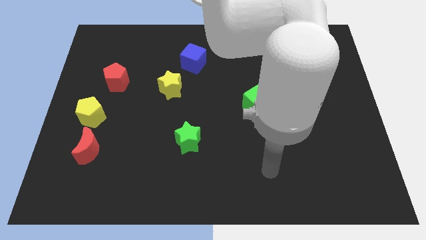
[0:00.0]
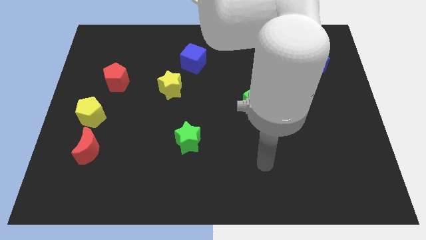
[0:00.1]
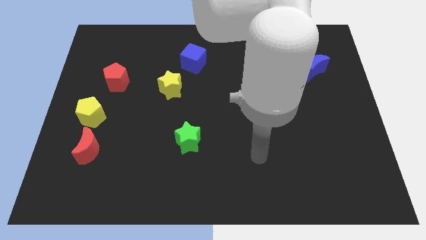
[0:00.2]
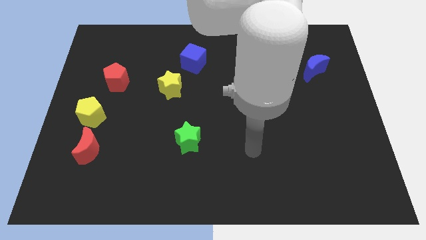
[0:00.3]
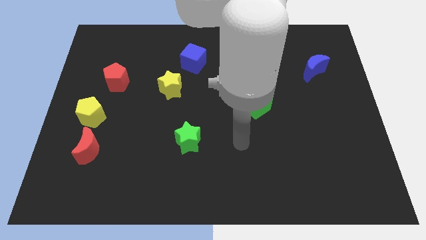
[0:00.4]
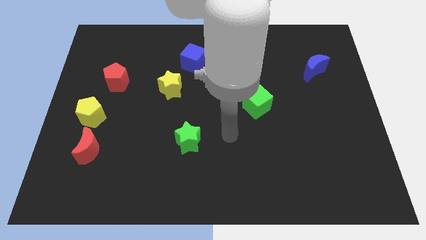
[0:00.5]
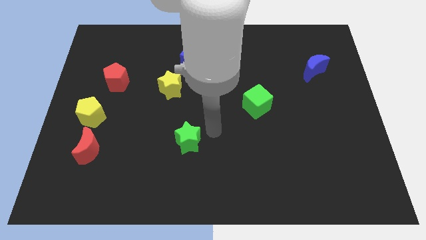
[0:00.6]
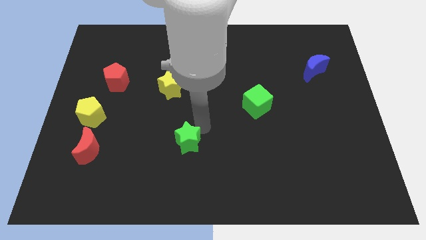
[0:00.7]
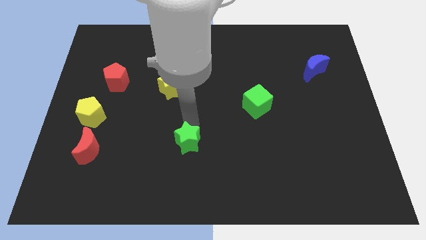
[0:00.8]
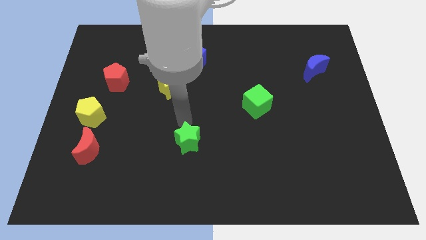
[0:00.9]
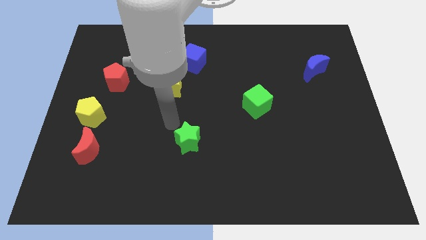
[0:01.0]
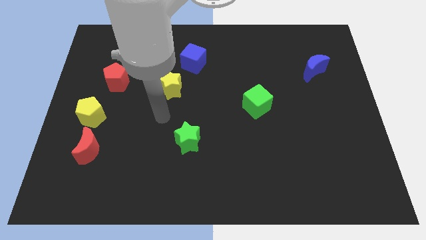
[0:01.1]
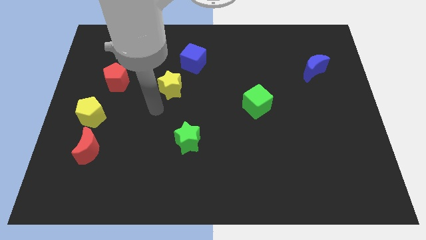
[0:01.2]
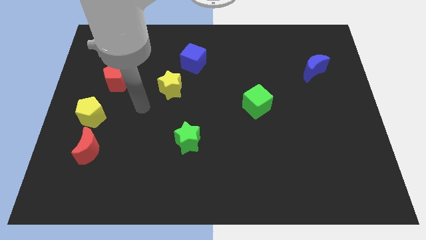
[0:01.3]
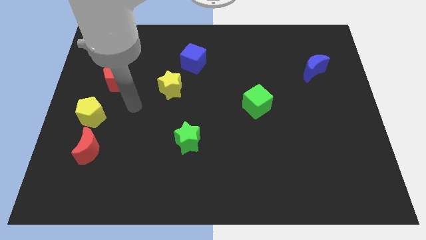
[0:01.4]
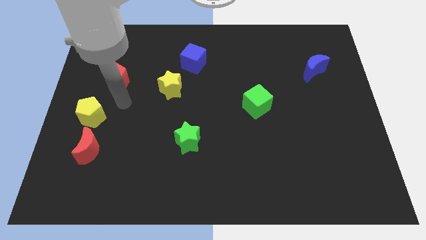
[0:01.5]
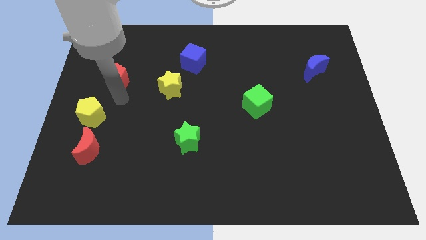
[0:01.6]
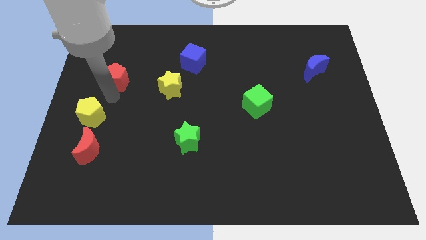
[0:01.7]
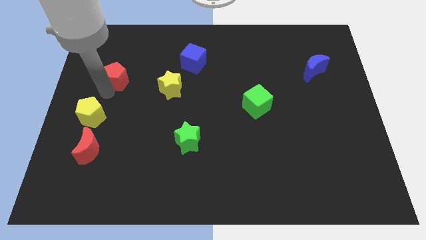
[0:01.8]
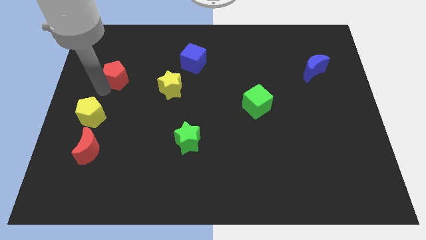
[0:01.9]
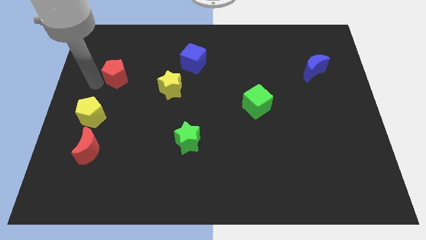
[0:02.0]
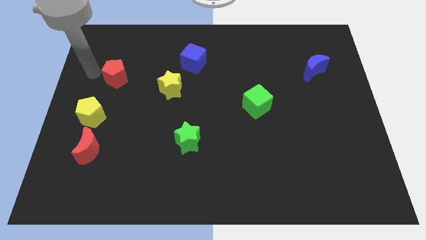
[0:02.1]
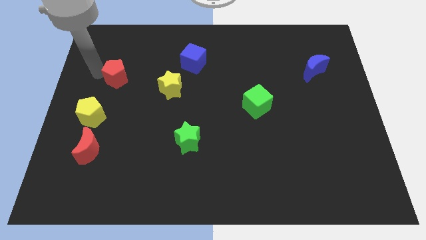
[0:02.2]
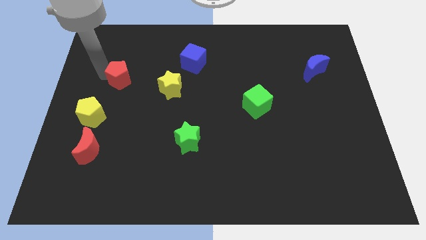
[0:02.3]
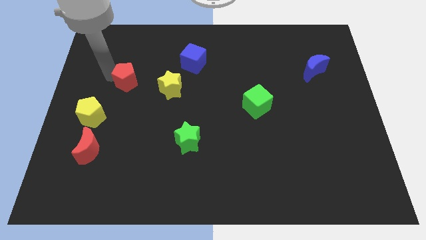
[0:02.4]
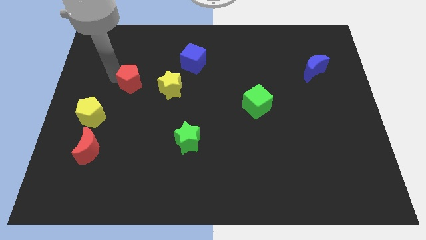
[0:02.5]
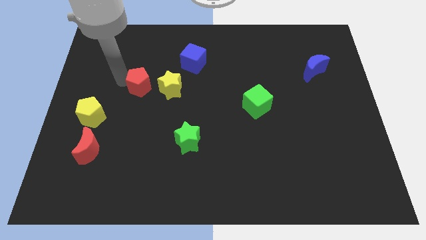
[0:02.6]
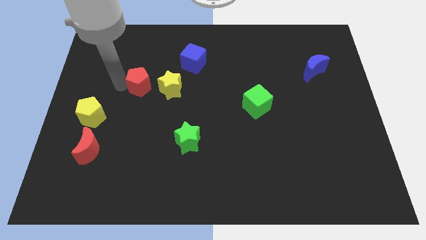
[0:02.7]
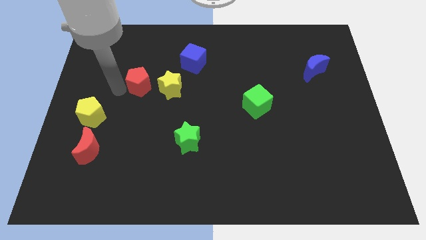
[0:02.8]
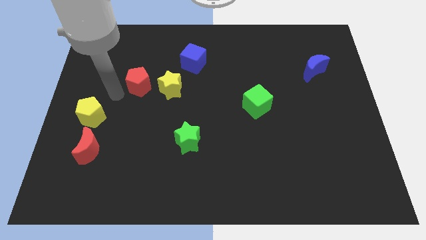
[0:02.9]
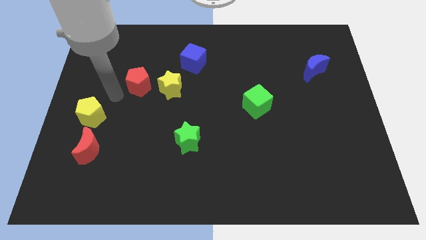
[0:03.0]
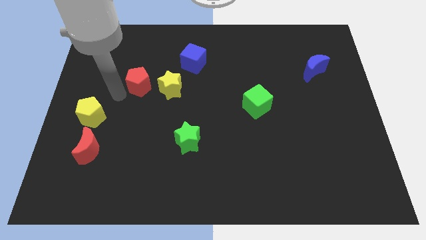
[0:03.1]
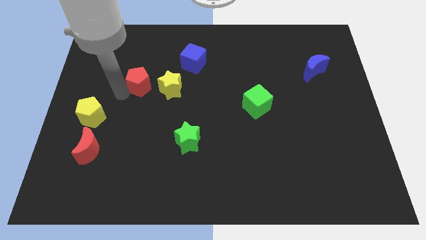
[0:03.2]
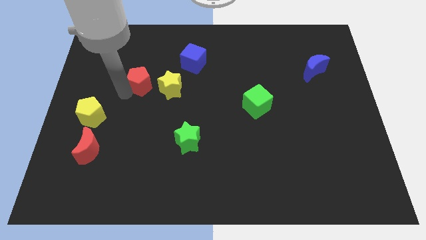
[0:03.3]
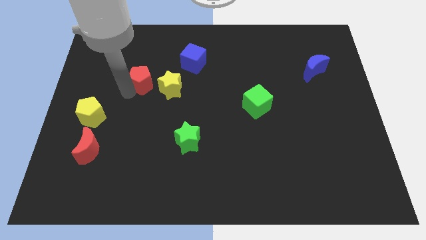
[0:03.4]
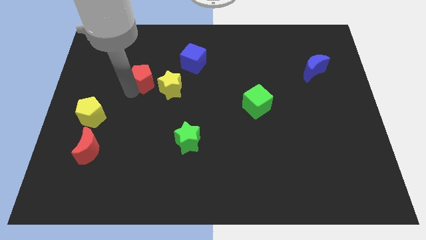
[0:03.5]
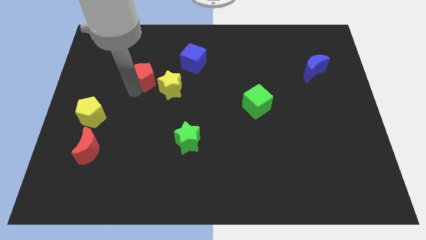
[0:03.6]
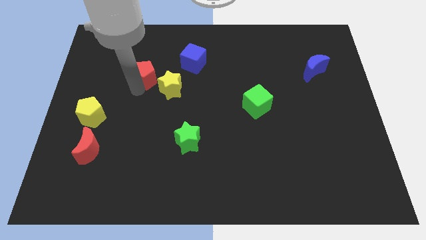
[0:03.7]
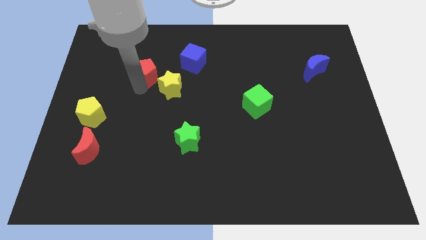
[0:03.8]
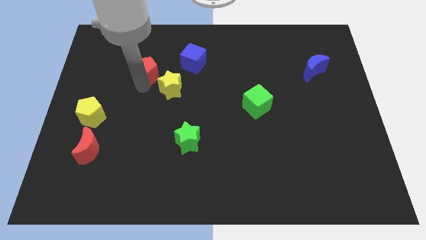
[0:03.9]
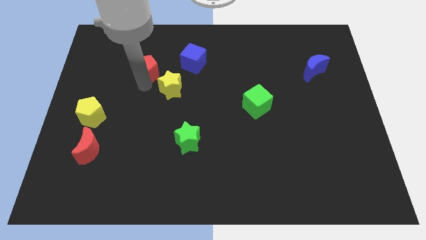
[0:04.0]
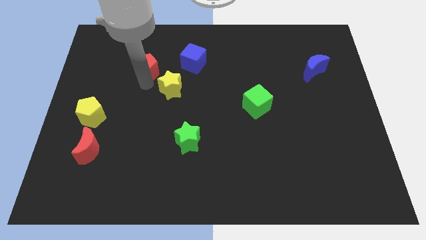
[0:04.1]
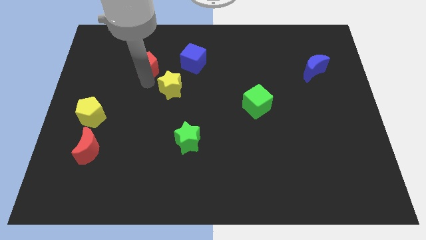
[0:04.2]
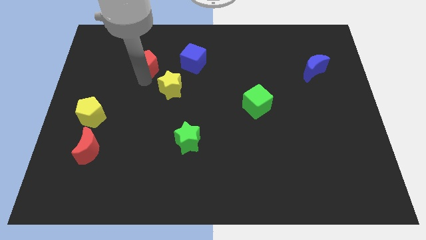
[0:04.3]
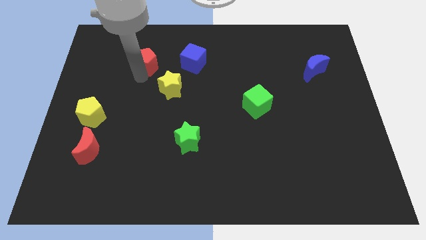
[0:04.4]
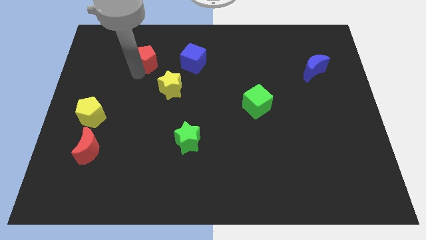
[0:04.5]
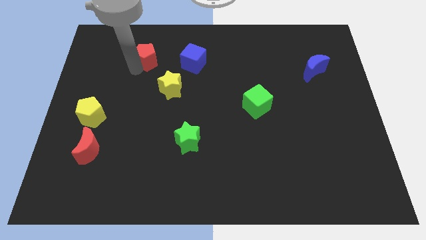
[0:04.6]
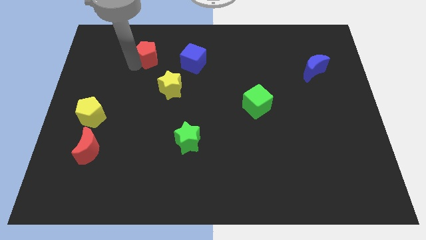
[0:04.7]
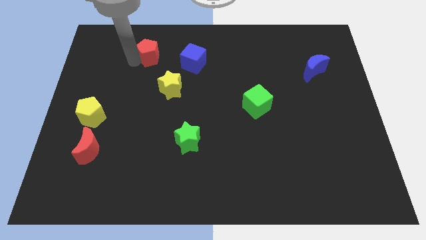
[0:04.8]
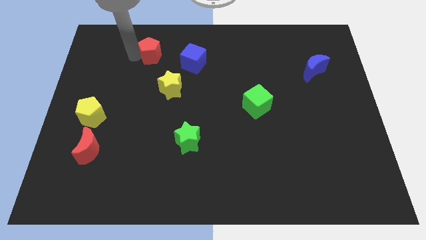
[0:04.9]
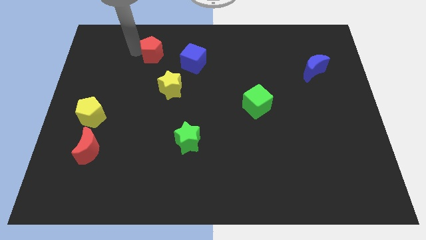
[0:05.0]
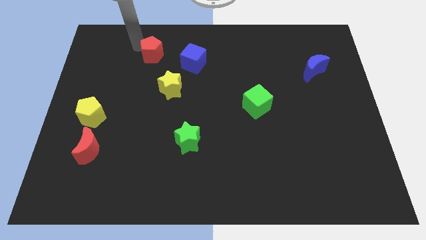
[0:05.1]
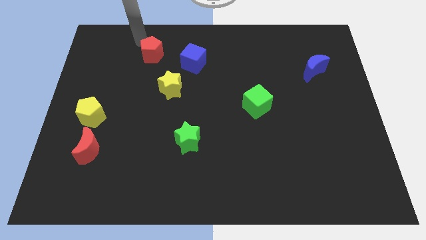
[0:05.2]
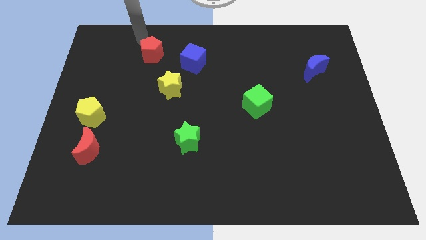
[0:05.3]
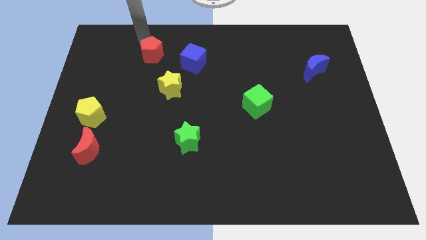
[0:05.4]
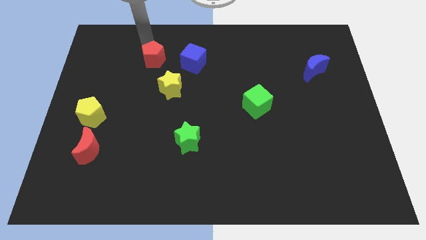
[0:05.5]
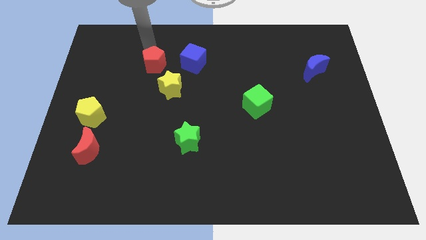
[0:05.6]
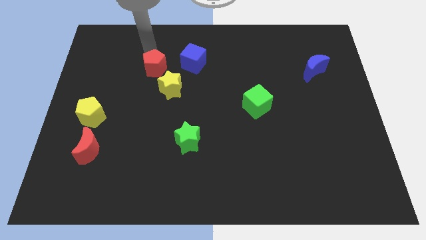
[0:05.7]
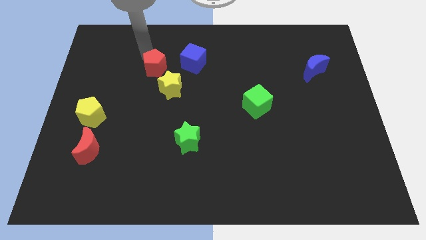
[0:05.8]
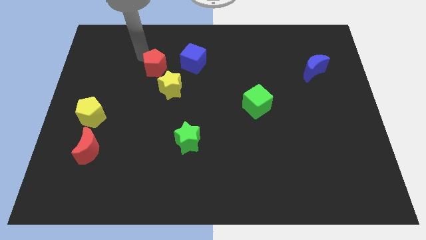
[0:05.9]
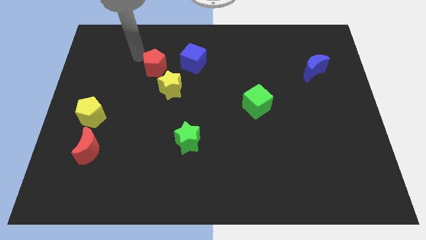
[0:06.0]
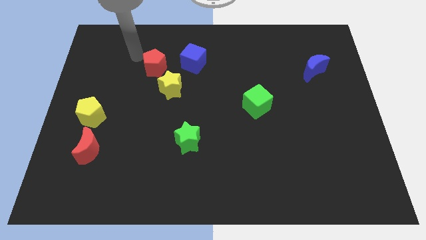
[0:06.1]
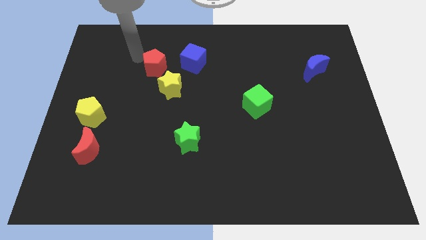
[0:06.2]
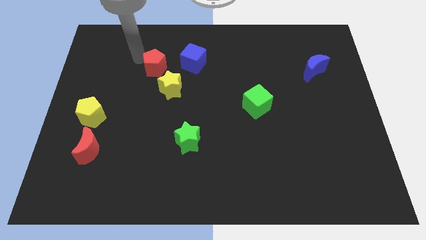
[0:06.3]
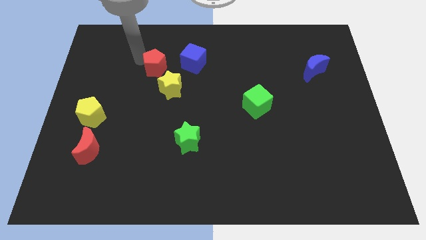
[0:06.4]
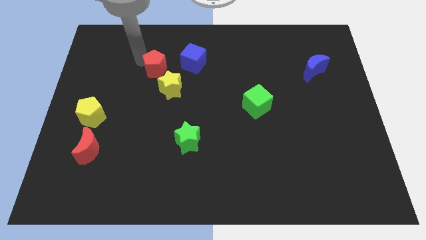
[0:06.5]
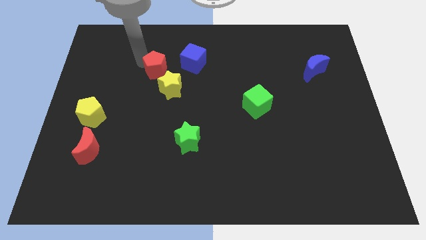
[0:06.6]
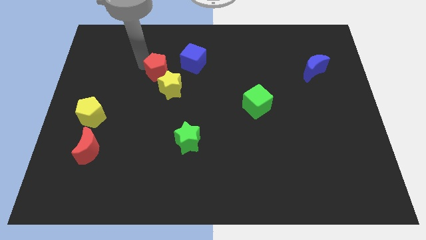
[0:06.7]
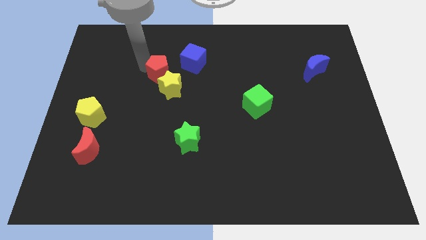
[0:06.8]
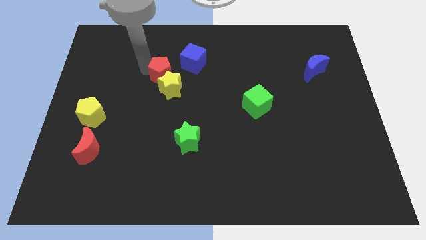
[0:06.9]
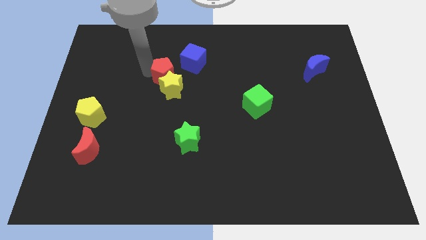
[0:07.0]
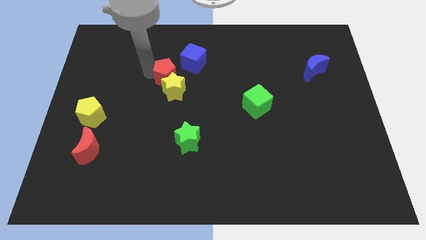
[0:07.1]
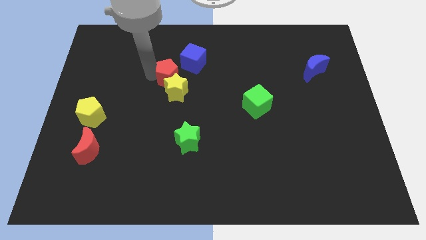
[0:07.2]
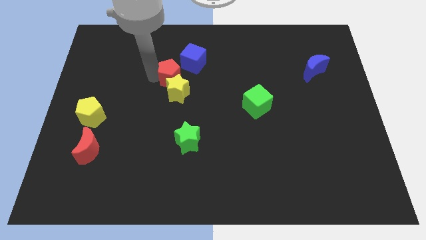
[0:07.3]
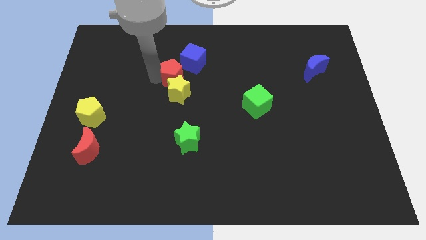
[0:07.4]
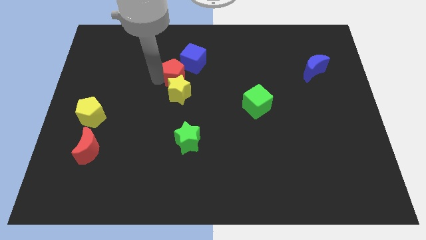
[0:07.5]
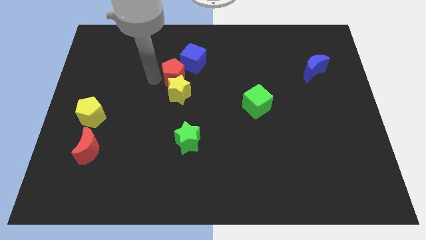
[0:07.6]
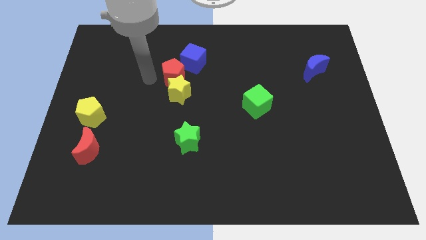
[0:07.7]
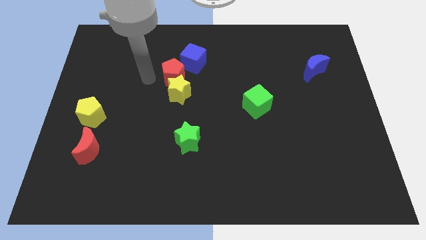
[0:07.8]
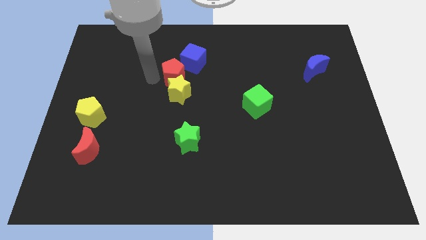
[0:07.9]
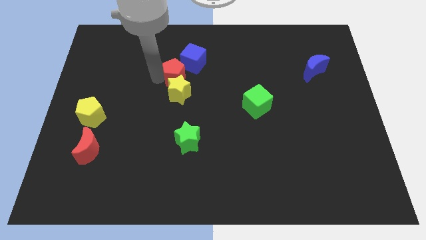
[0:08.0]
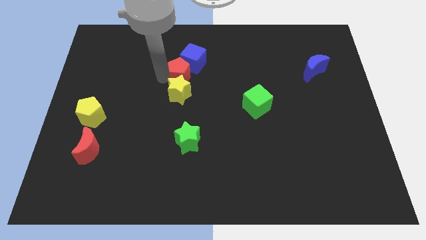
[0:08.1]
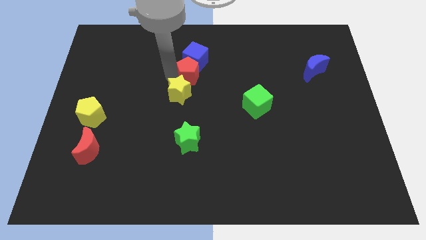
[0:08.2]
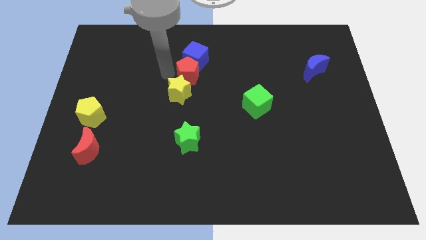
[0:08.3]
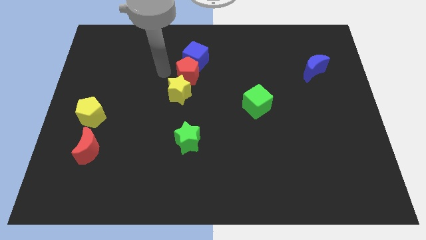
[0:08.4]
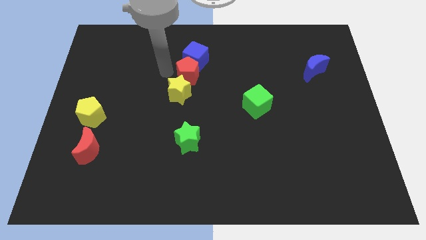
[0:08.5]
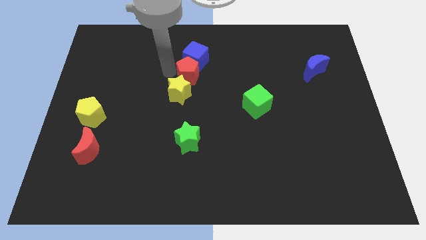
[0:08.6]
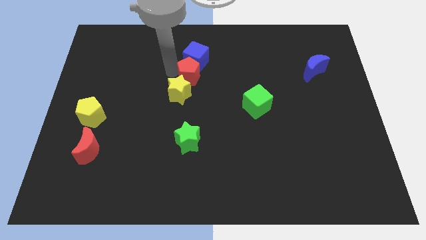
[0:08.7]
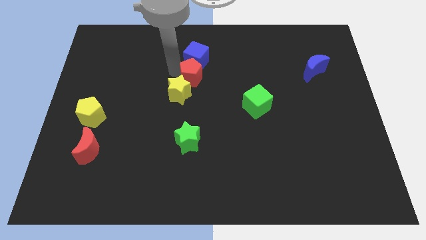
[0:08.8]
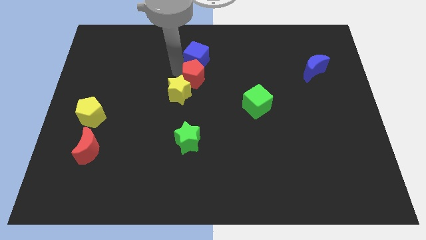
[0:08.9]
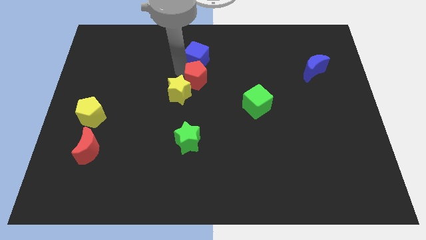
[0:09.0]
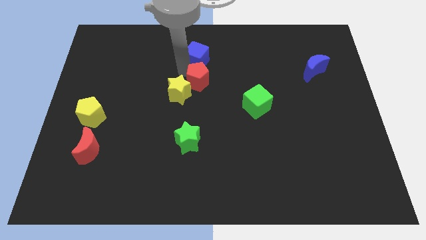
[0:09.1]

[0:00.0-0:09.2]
push the red pentagon to the right
